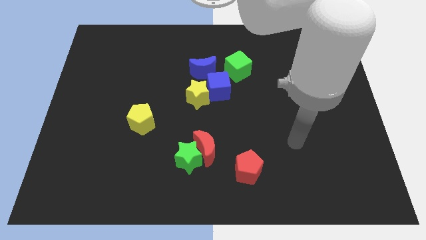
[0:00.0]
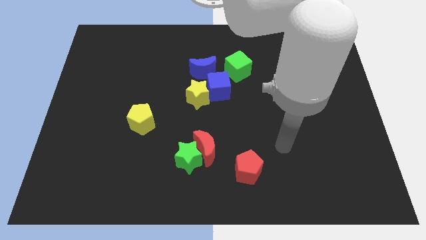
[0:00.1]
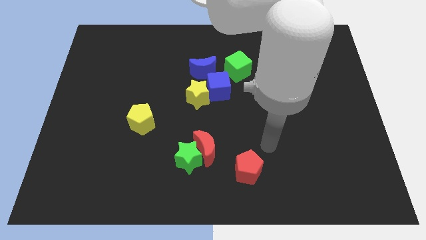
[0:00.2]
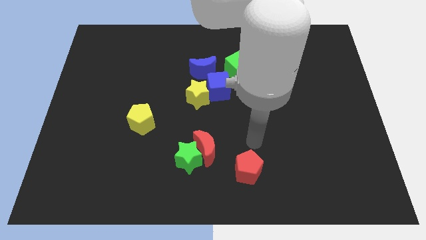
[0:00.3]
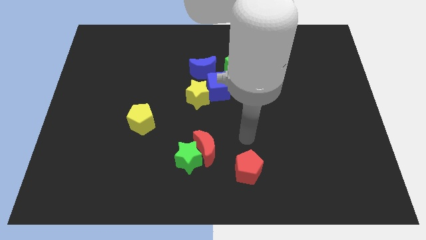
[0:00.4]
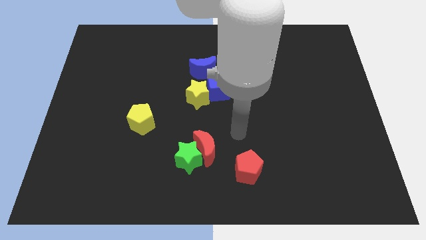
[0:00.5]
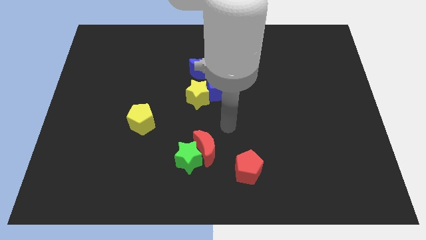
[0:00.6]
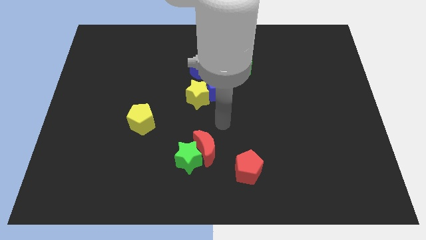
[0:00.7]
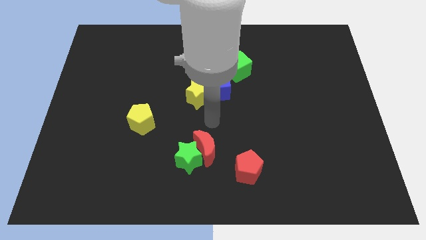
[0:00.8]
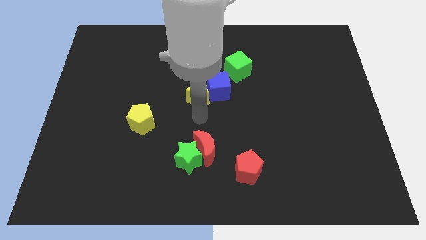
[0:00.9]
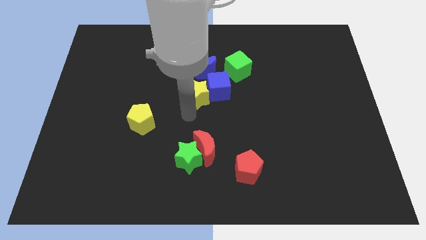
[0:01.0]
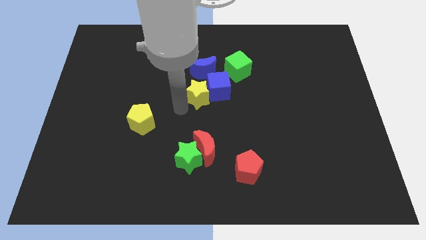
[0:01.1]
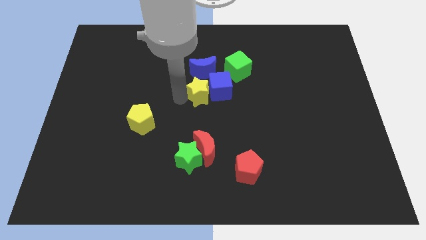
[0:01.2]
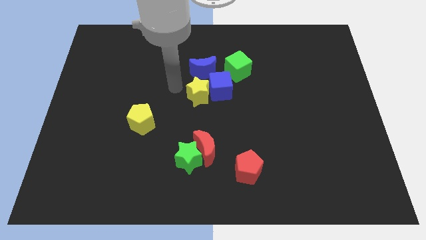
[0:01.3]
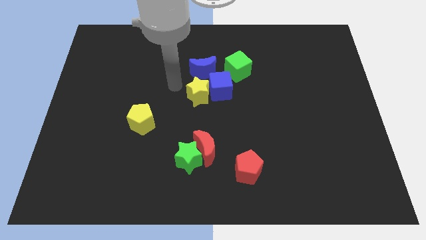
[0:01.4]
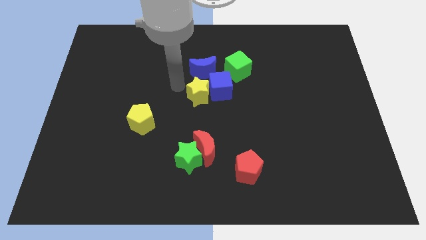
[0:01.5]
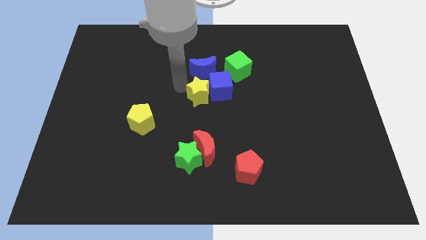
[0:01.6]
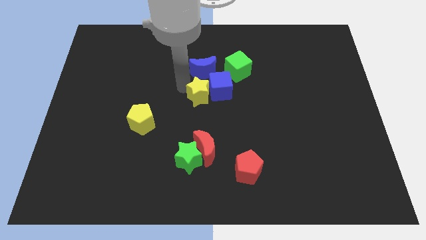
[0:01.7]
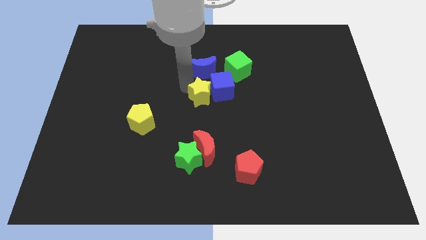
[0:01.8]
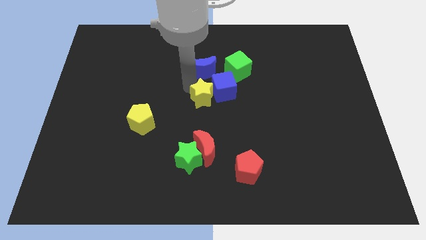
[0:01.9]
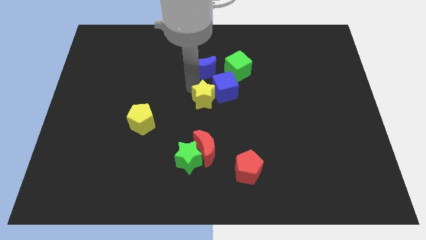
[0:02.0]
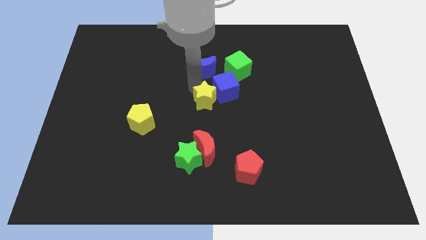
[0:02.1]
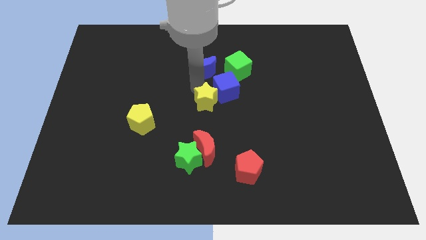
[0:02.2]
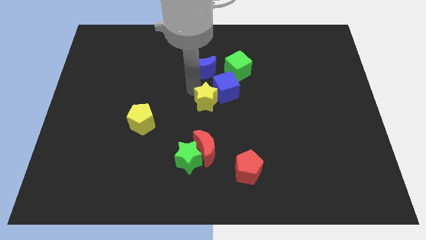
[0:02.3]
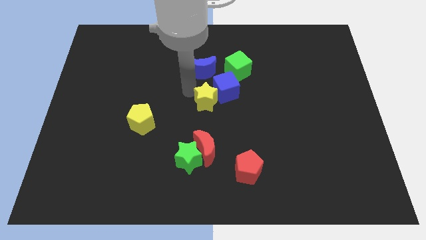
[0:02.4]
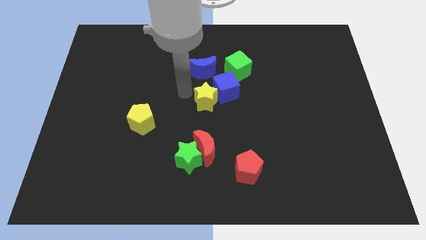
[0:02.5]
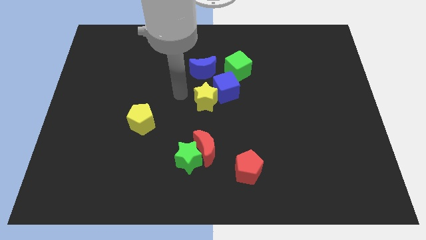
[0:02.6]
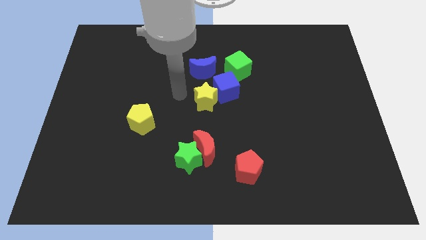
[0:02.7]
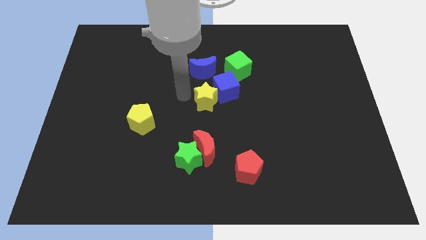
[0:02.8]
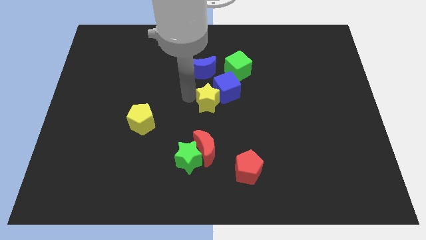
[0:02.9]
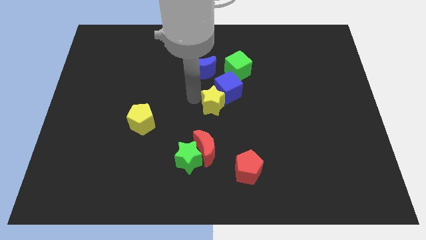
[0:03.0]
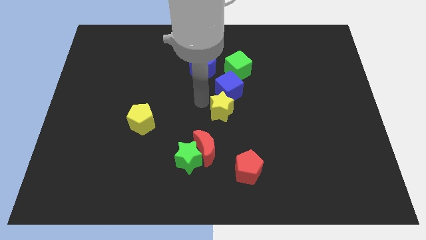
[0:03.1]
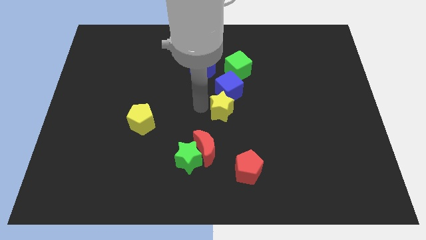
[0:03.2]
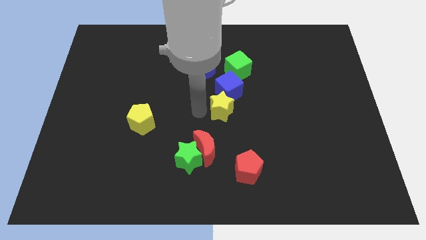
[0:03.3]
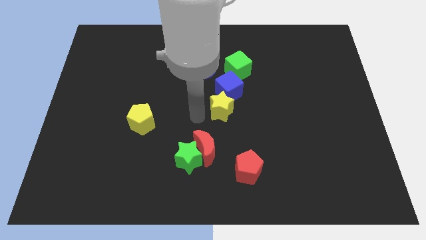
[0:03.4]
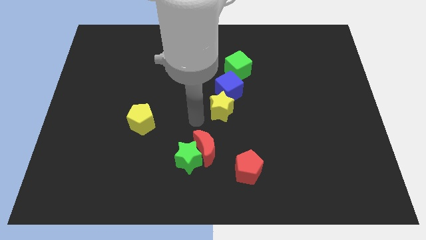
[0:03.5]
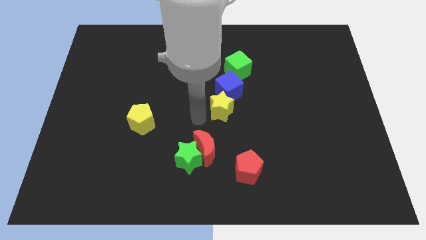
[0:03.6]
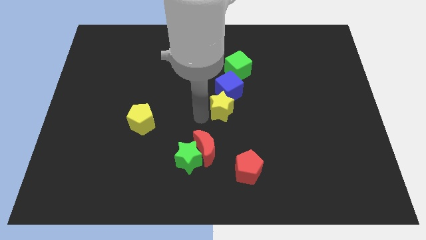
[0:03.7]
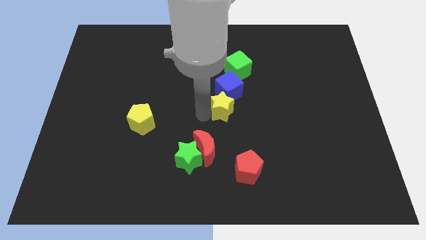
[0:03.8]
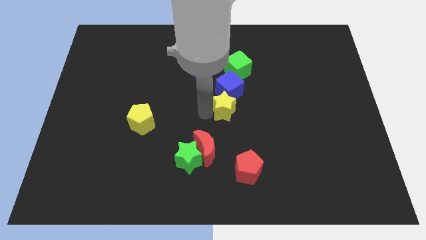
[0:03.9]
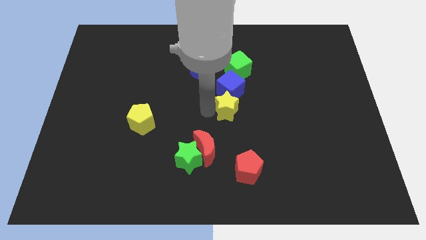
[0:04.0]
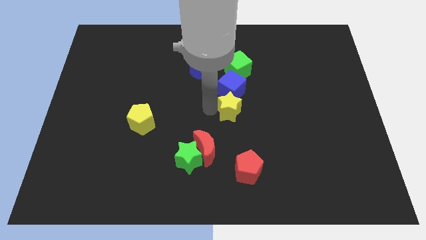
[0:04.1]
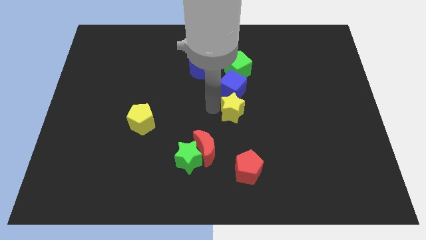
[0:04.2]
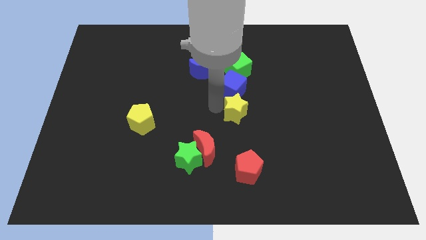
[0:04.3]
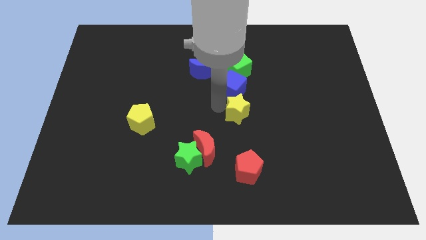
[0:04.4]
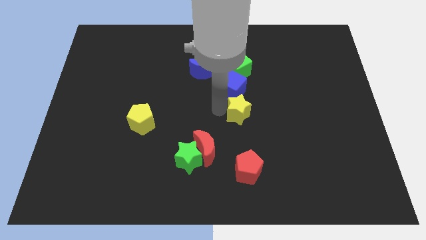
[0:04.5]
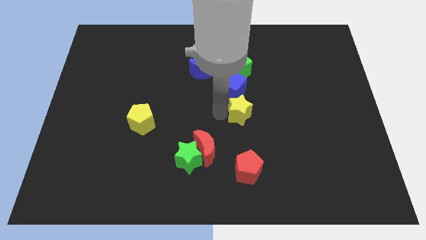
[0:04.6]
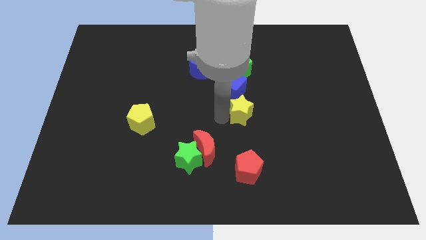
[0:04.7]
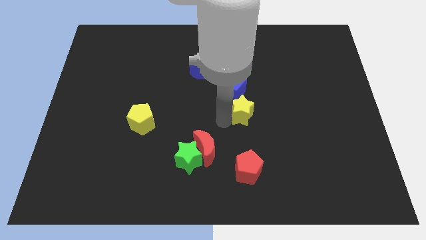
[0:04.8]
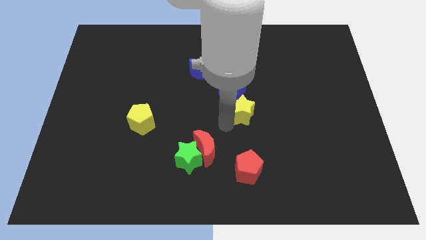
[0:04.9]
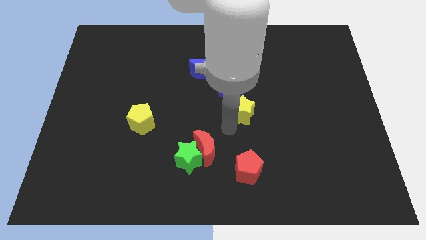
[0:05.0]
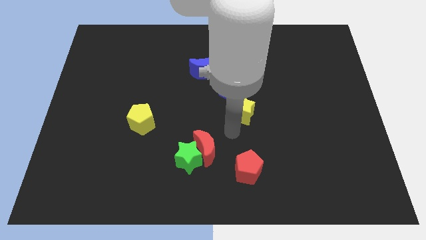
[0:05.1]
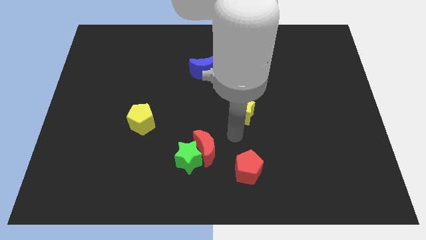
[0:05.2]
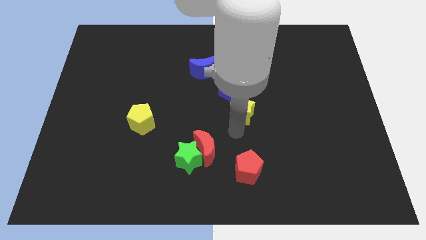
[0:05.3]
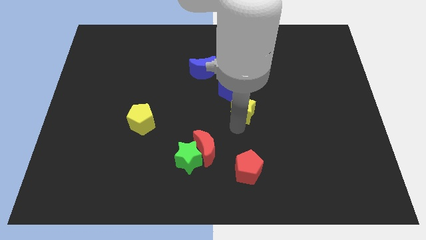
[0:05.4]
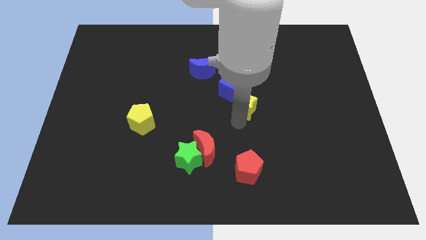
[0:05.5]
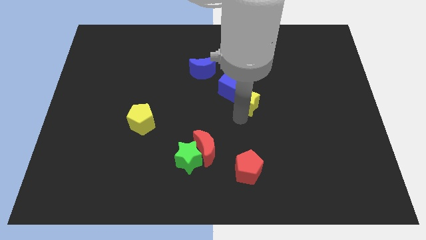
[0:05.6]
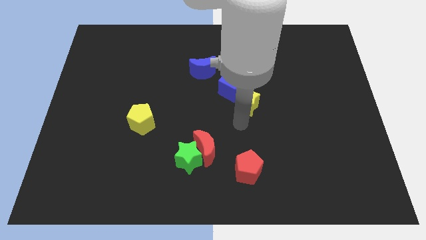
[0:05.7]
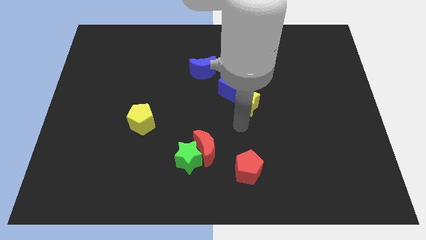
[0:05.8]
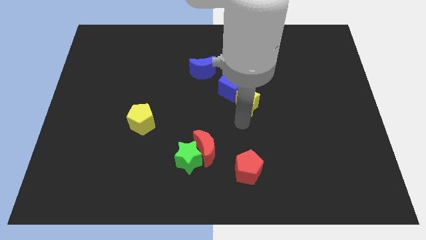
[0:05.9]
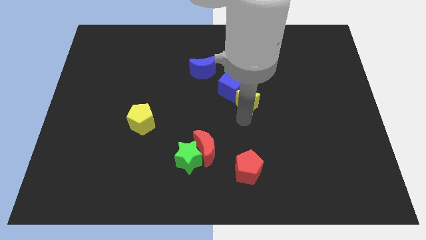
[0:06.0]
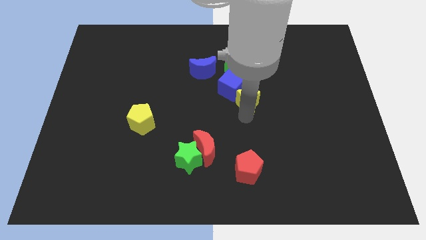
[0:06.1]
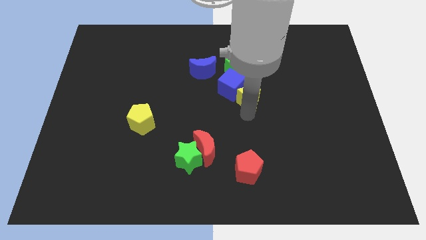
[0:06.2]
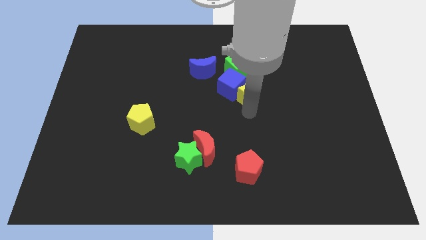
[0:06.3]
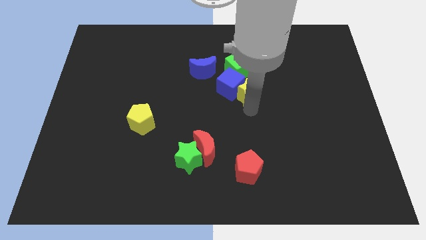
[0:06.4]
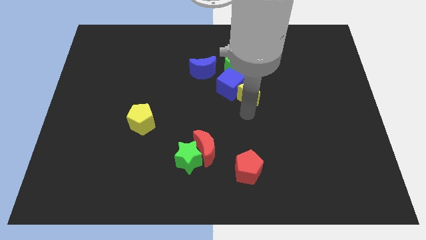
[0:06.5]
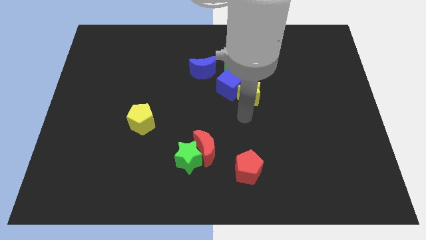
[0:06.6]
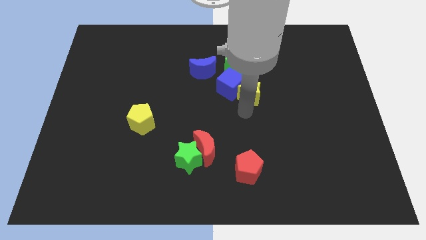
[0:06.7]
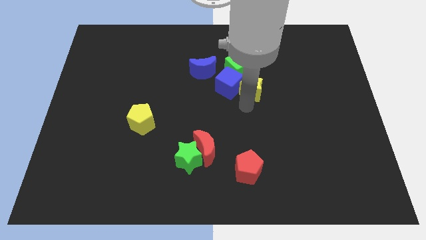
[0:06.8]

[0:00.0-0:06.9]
slightly push the yellow star diagonally upwards and to the right

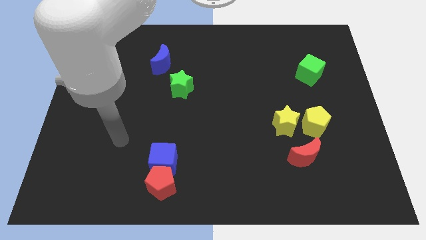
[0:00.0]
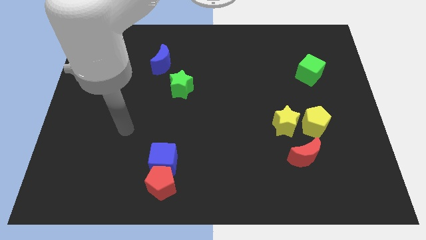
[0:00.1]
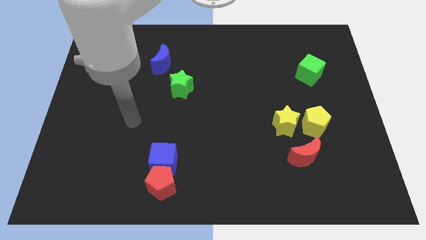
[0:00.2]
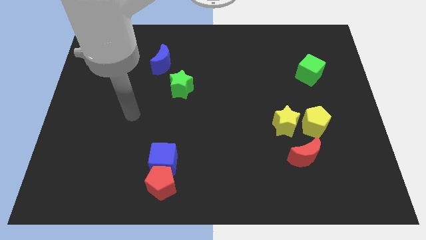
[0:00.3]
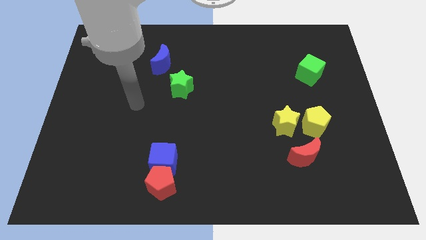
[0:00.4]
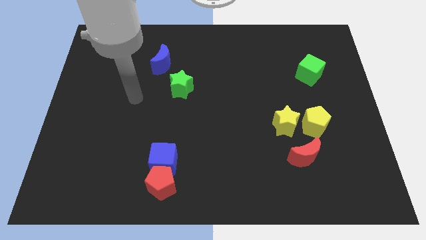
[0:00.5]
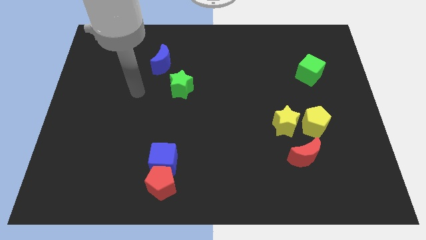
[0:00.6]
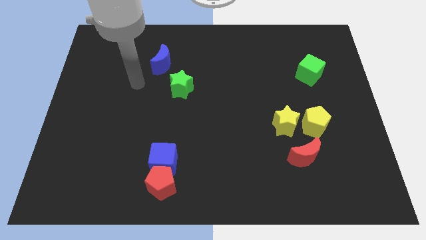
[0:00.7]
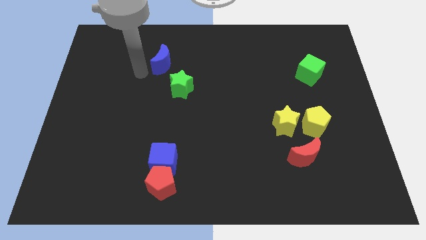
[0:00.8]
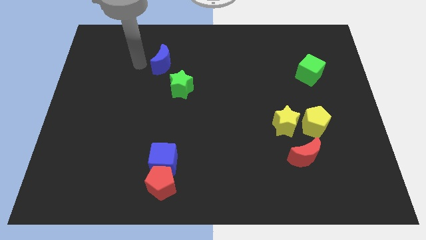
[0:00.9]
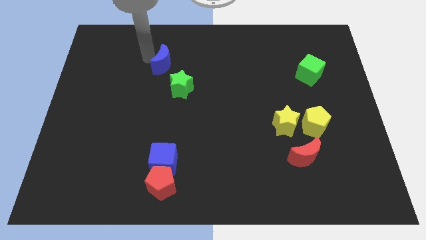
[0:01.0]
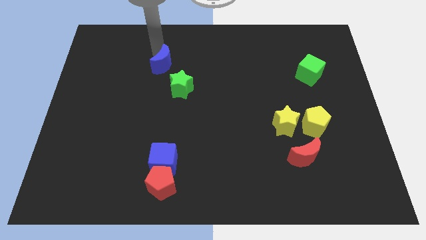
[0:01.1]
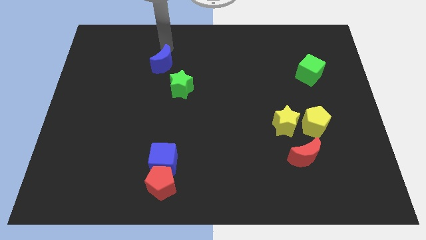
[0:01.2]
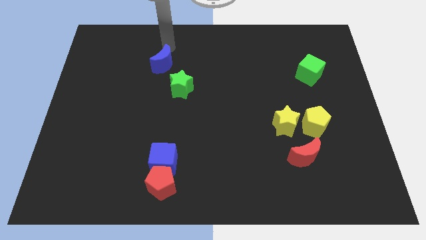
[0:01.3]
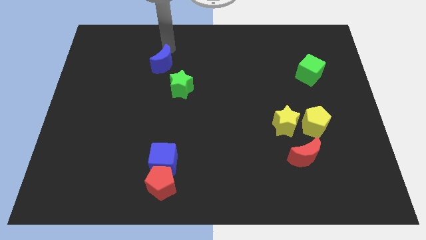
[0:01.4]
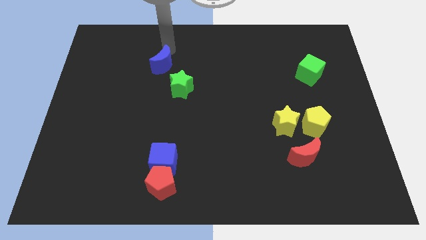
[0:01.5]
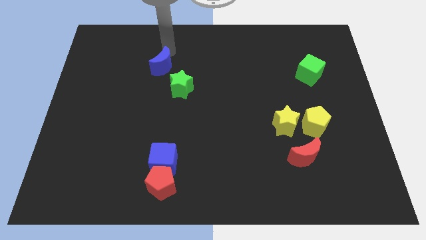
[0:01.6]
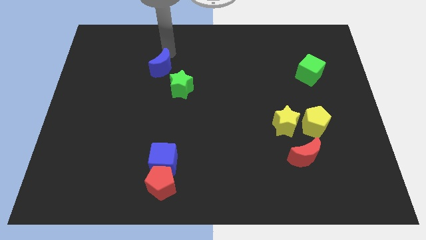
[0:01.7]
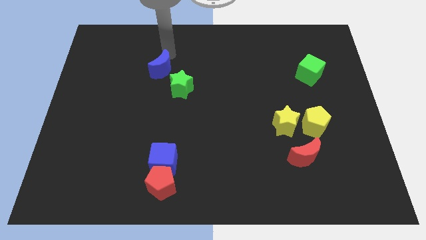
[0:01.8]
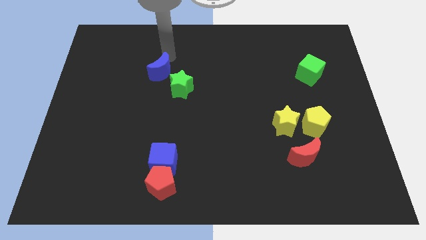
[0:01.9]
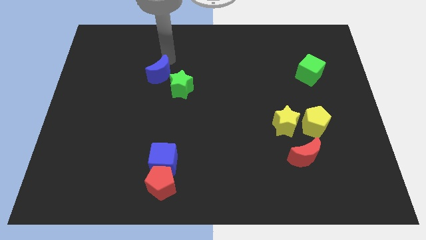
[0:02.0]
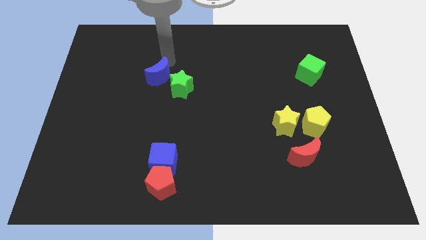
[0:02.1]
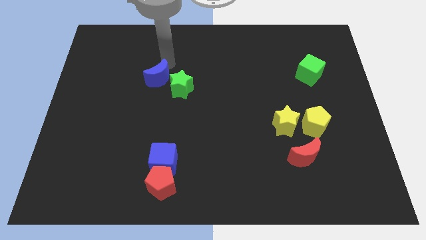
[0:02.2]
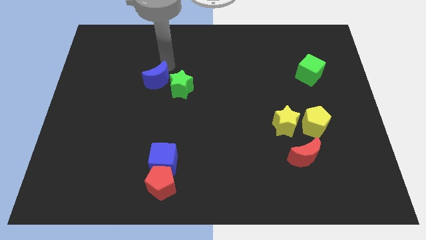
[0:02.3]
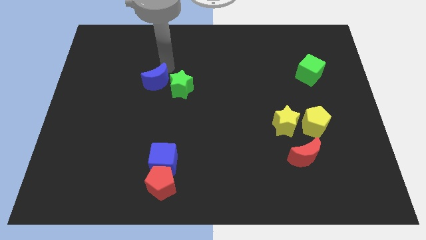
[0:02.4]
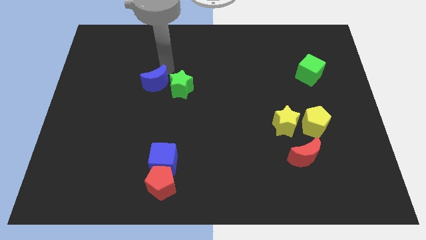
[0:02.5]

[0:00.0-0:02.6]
slightly move the blue moon down
